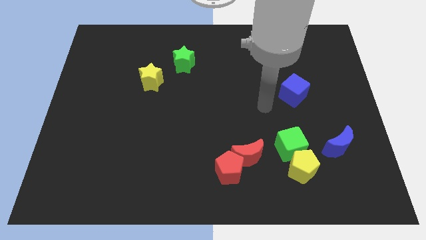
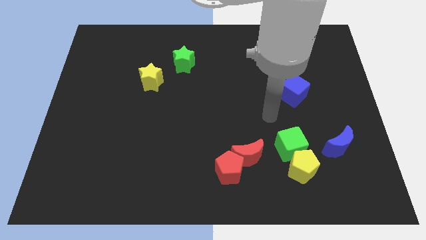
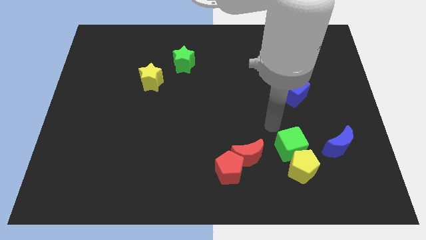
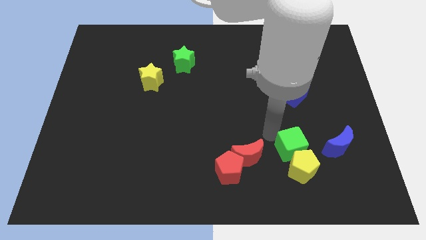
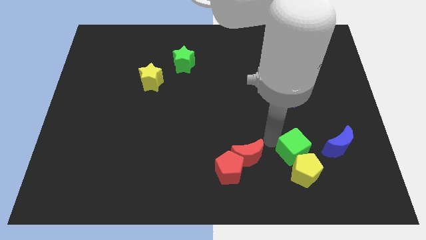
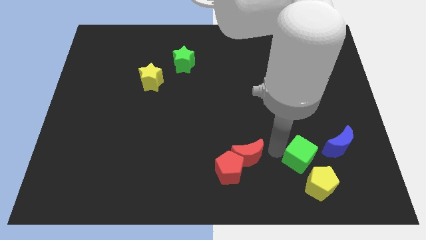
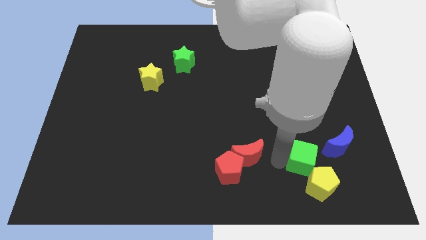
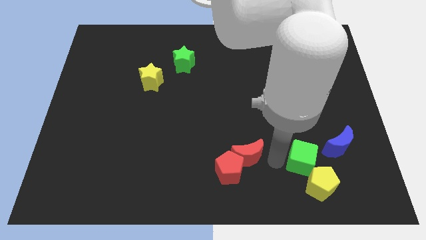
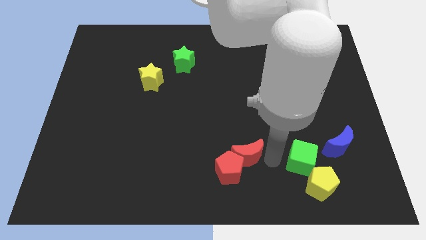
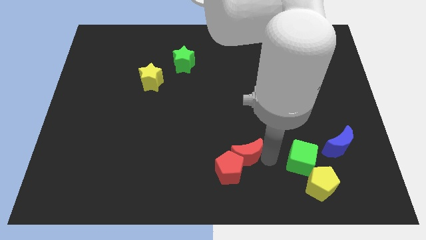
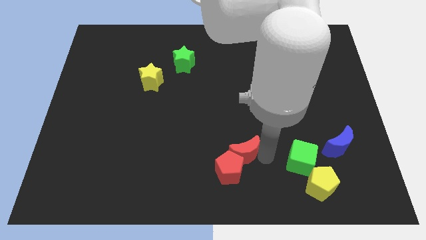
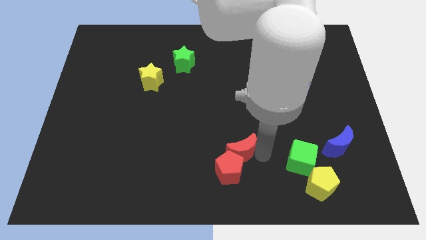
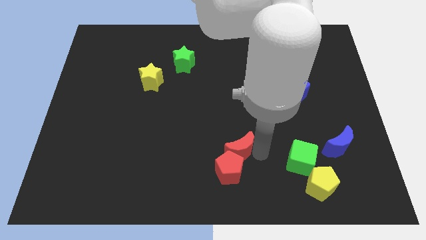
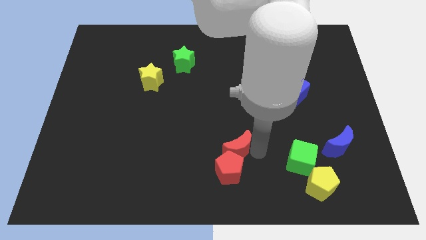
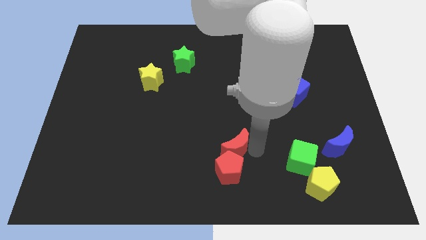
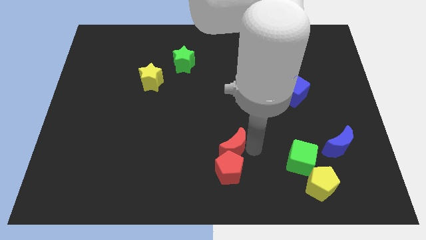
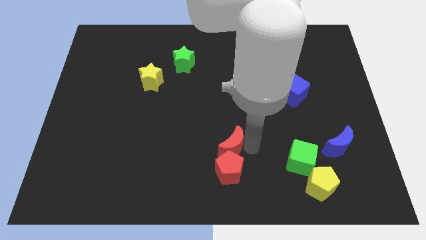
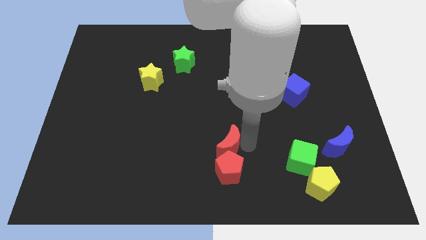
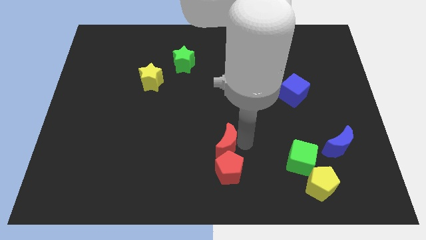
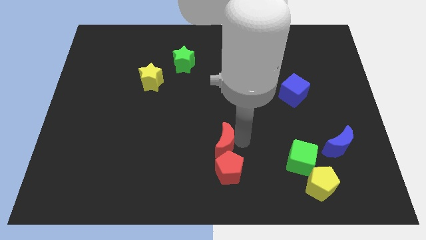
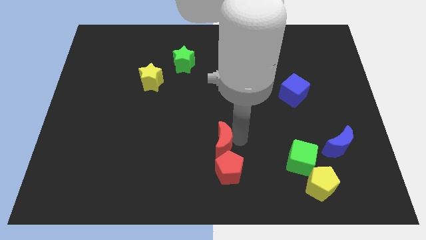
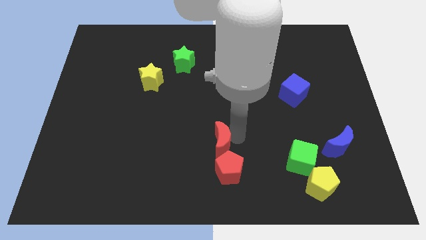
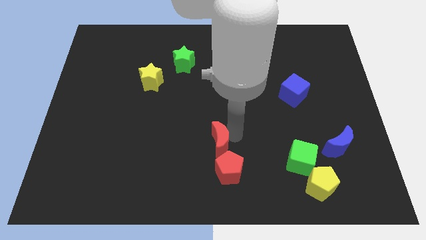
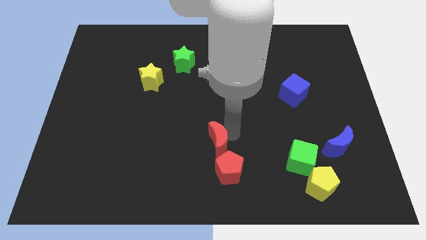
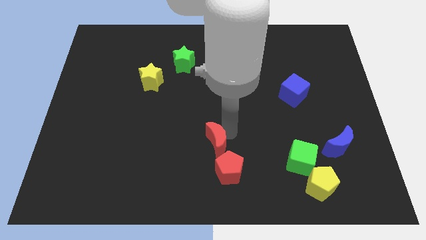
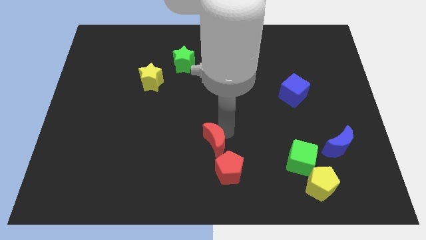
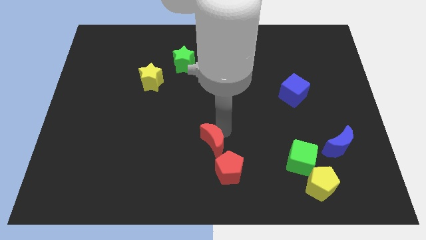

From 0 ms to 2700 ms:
slide the red moon left a little

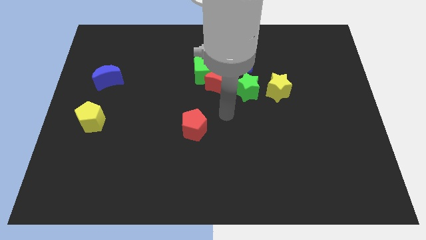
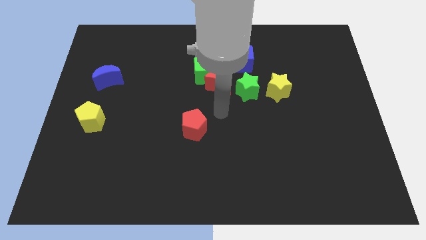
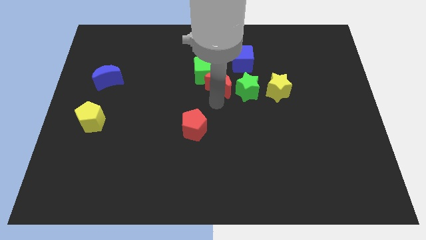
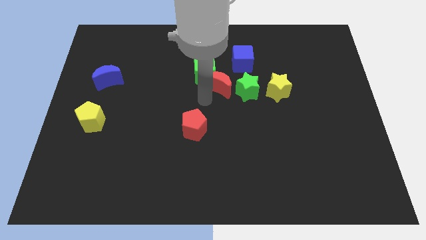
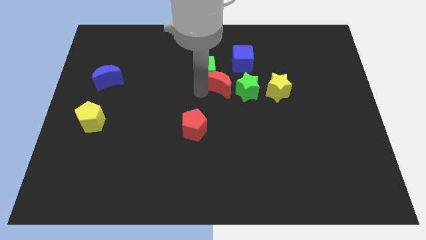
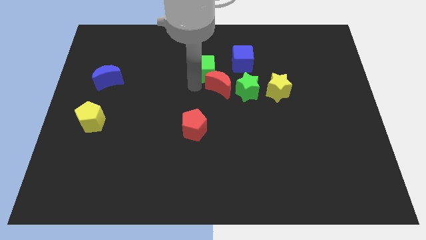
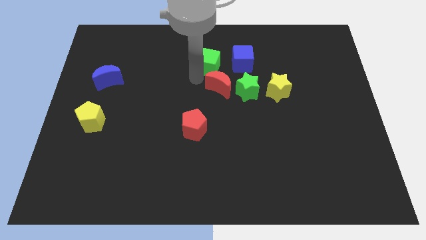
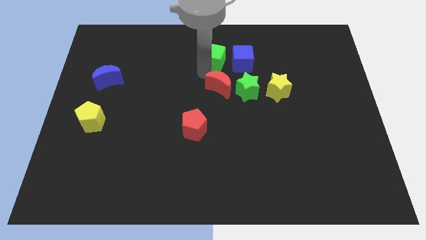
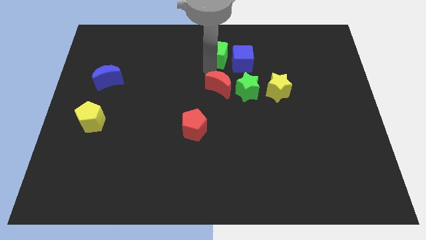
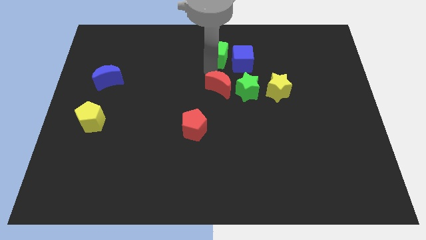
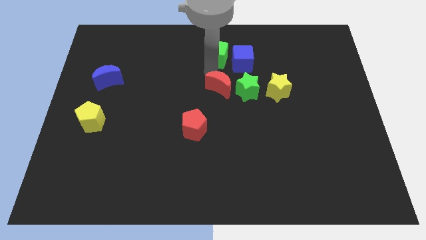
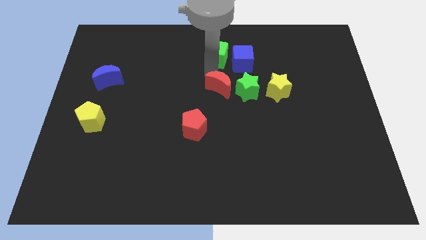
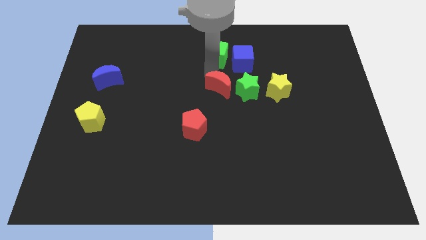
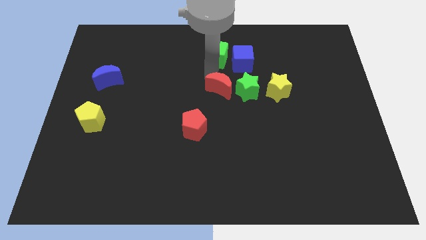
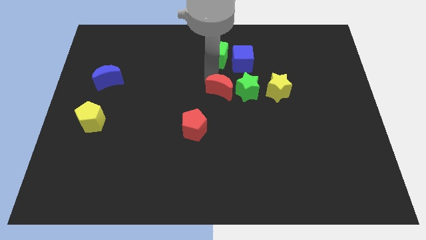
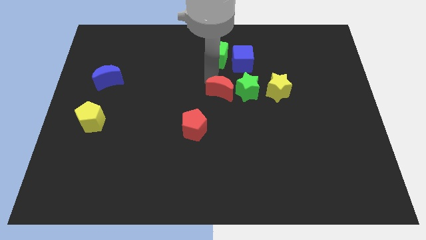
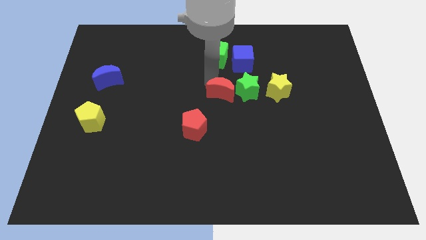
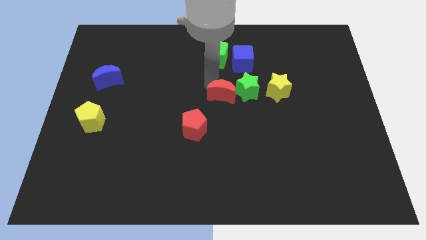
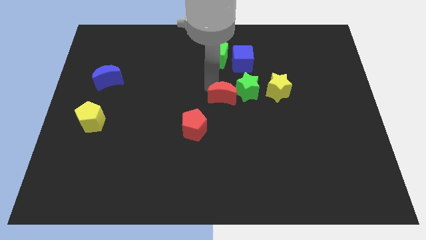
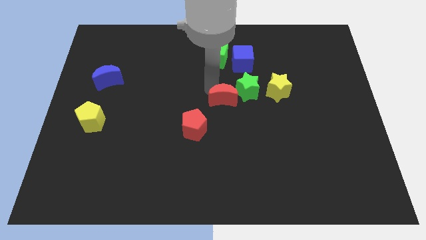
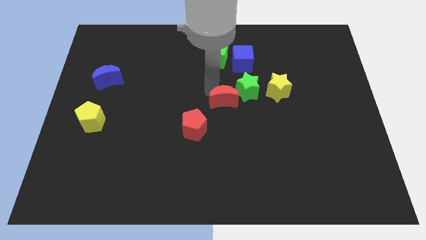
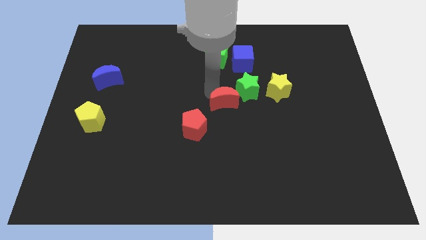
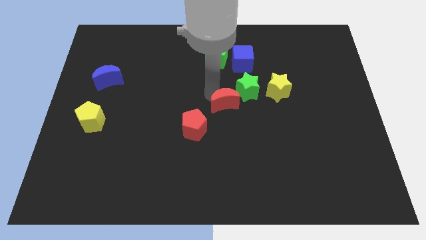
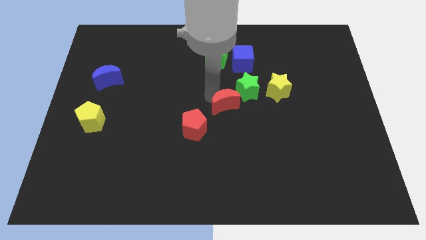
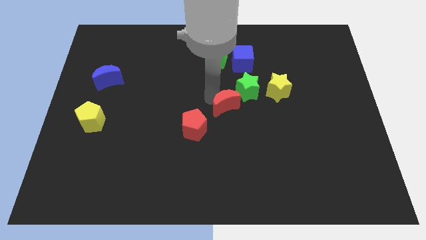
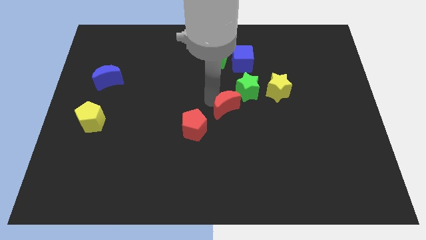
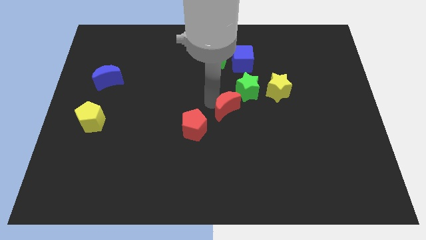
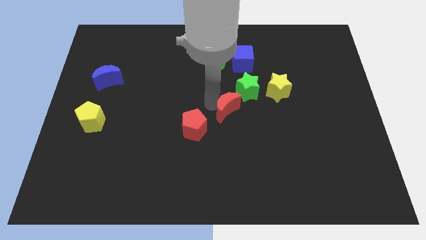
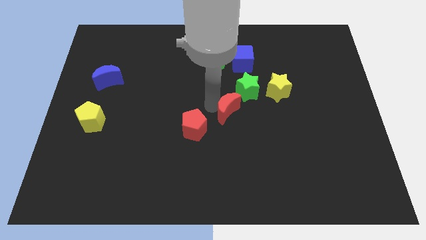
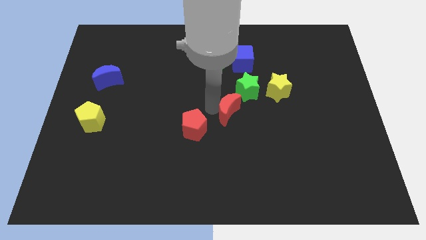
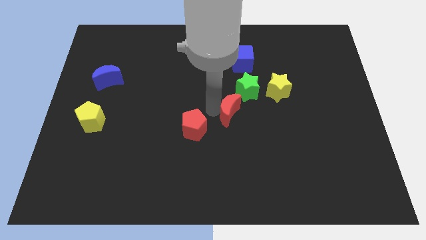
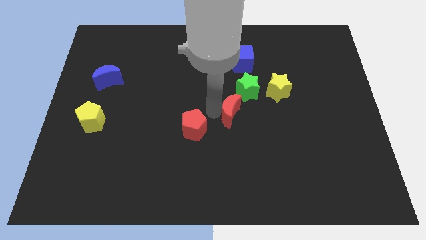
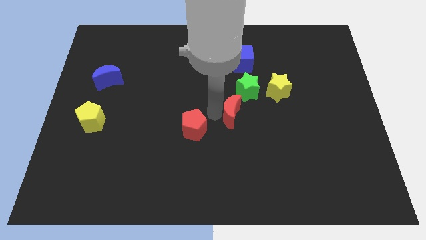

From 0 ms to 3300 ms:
push the red moon down and to the right diagonally slightly

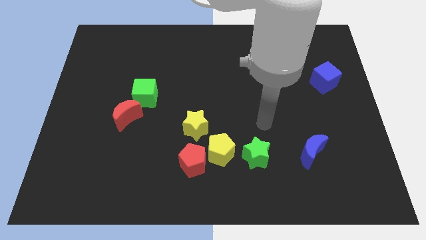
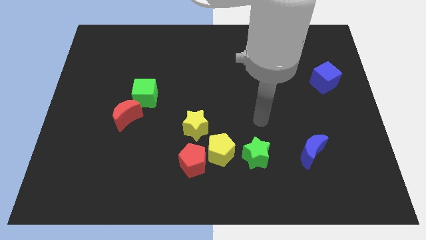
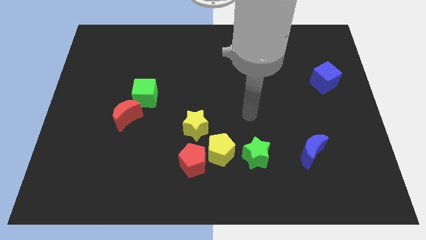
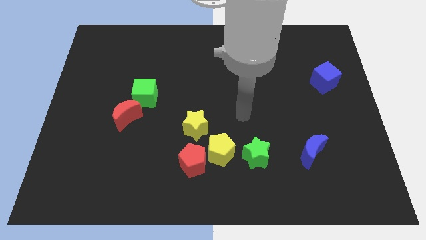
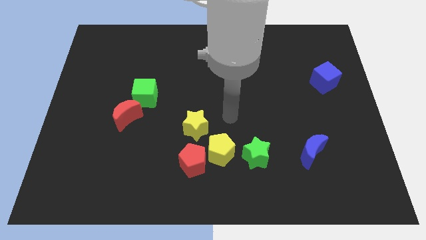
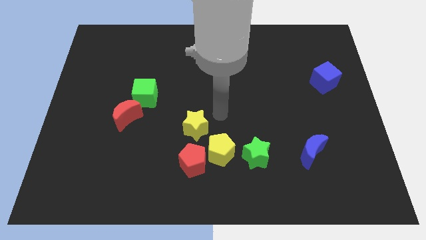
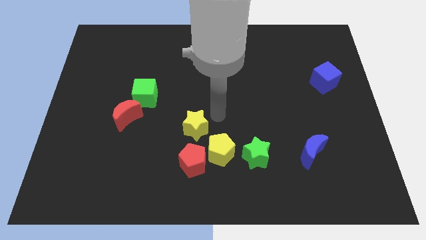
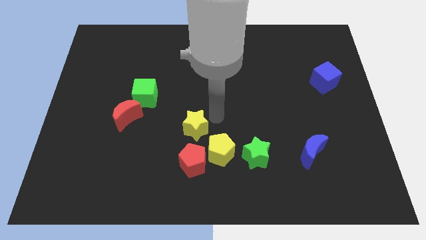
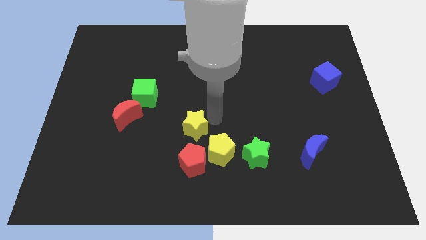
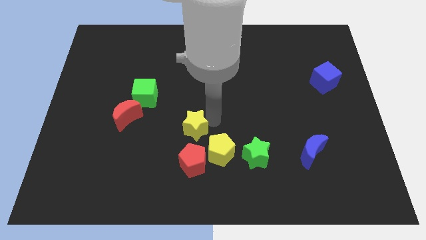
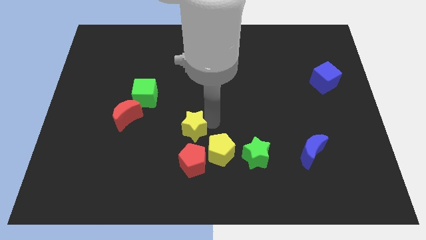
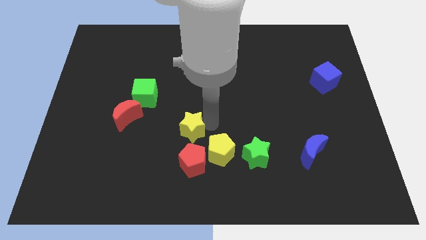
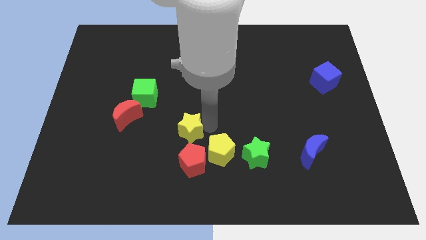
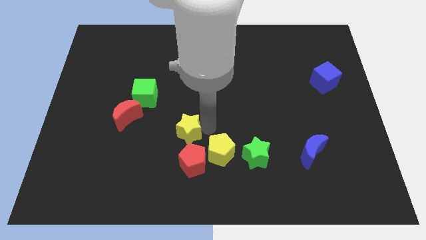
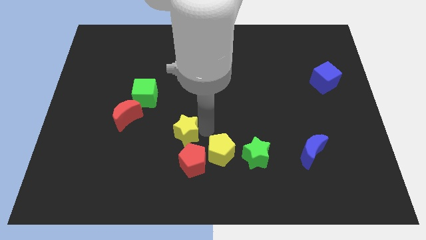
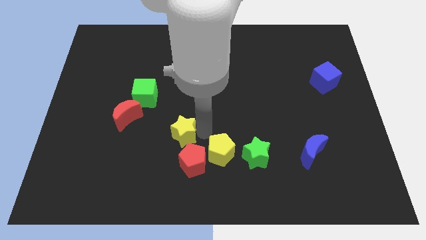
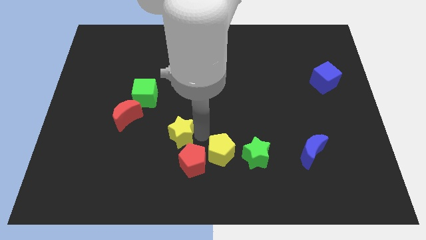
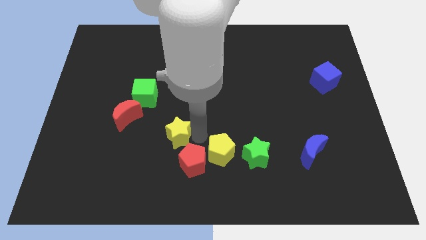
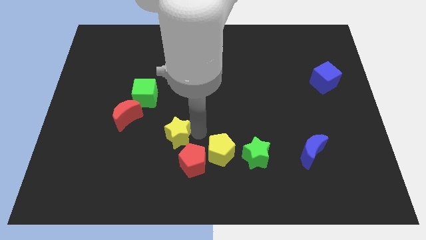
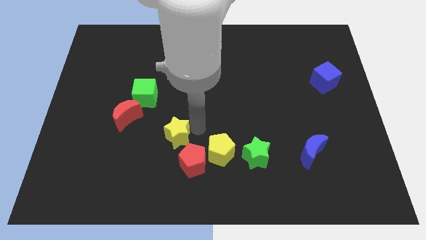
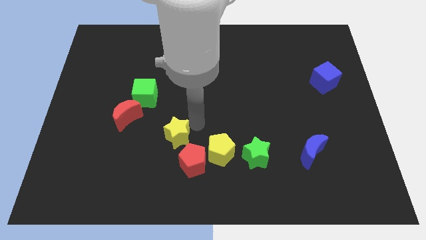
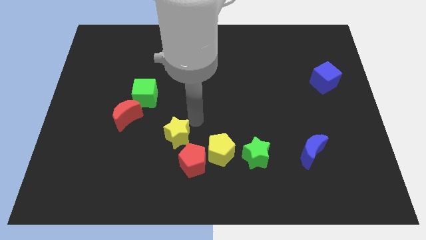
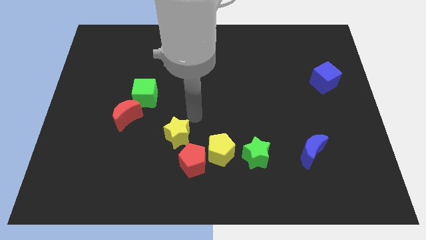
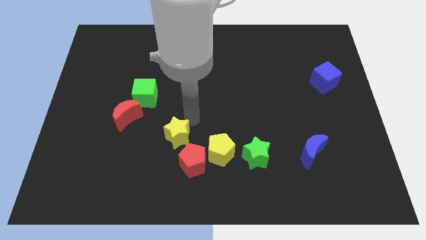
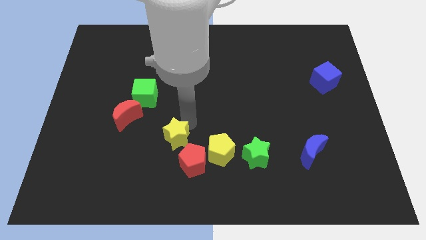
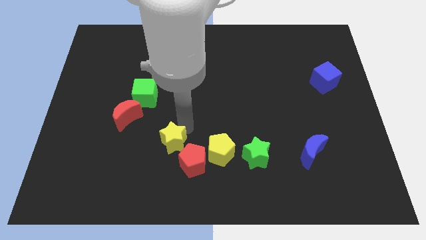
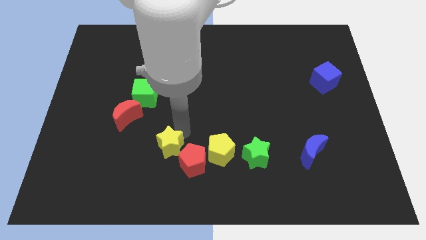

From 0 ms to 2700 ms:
move the yellow star down and left a little
